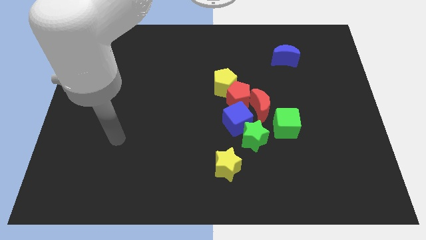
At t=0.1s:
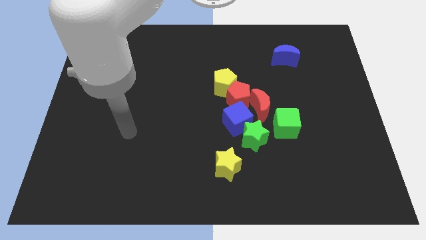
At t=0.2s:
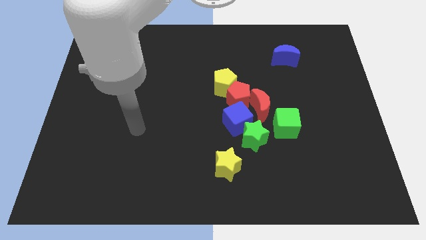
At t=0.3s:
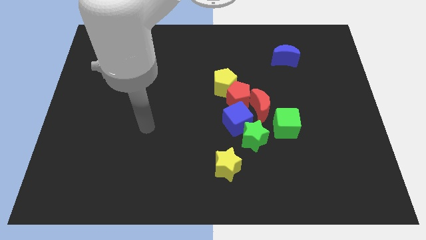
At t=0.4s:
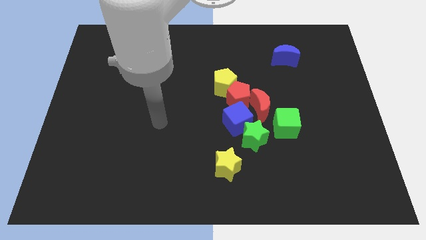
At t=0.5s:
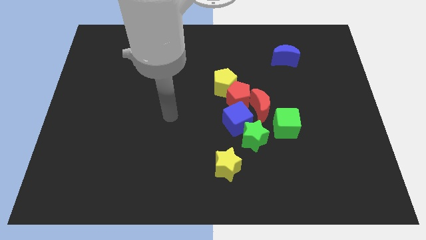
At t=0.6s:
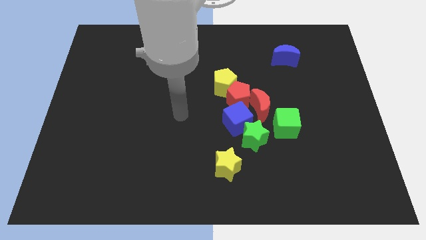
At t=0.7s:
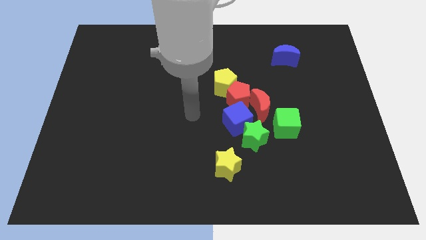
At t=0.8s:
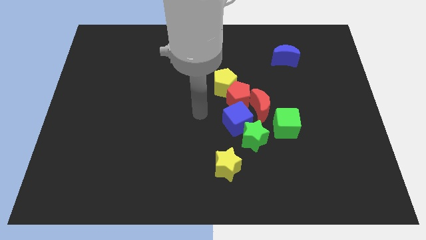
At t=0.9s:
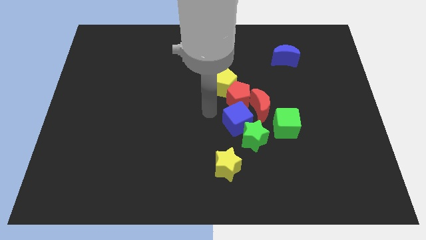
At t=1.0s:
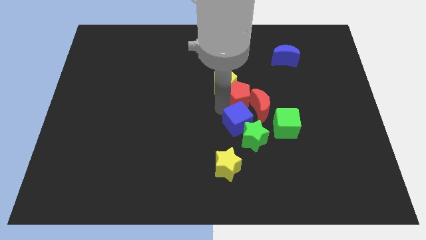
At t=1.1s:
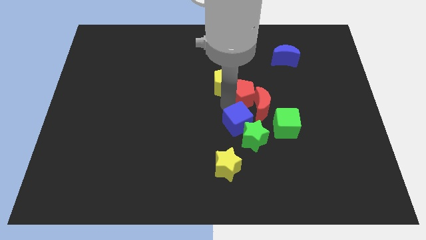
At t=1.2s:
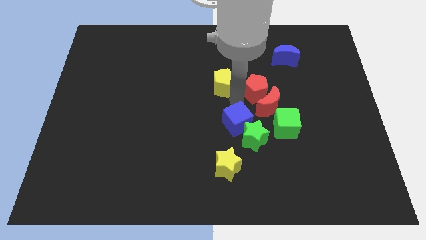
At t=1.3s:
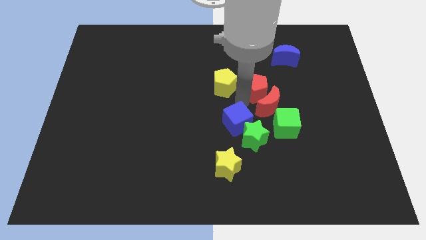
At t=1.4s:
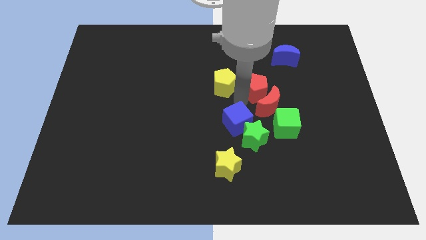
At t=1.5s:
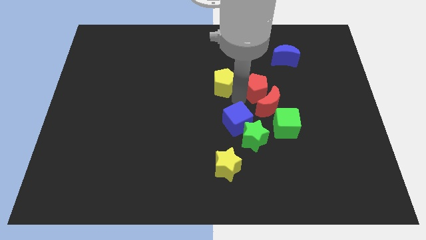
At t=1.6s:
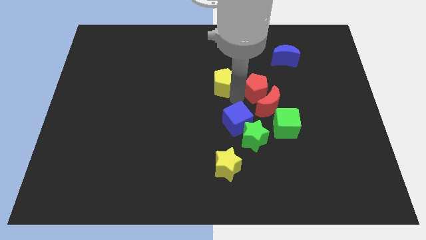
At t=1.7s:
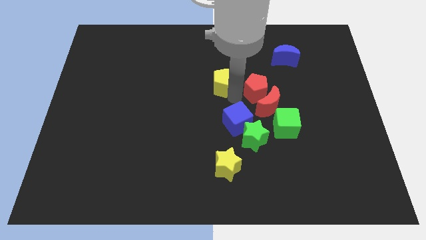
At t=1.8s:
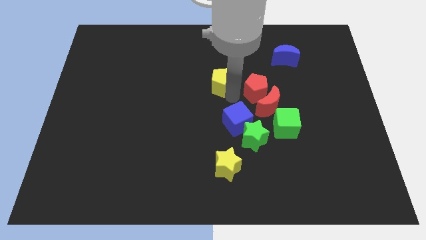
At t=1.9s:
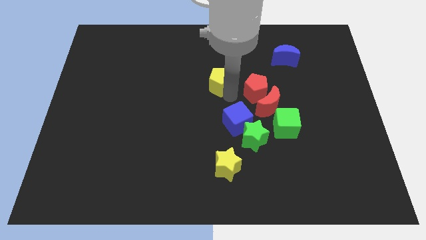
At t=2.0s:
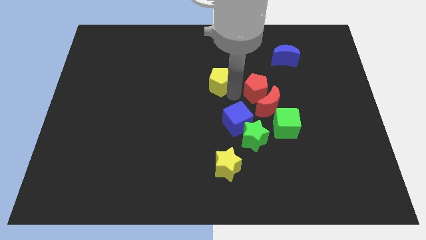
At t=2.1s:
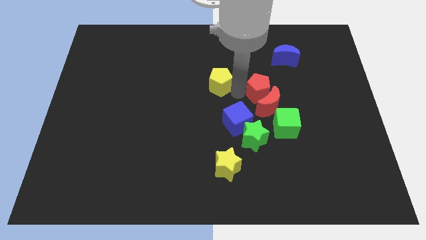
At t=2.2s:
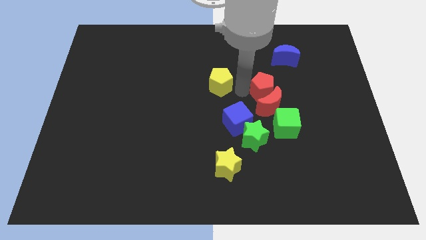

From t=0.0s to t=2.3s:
separate the yellow pentagon from the red pentagon

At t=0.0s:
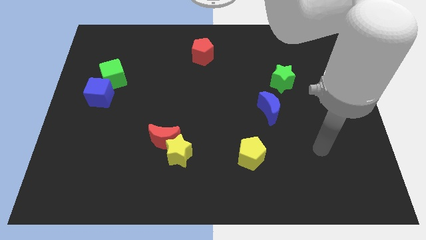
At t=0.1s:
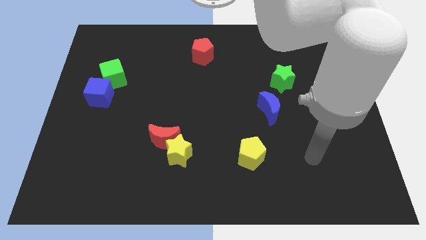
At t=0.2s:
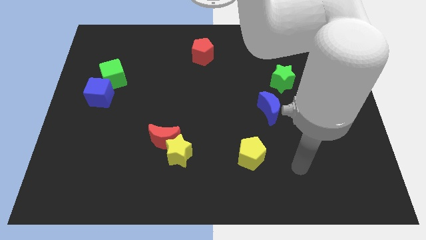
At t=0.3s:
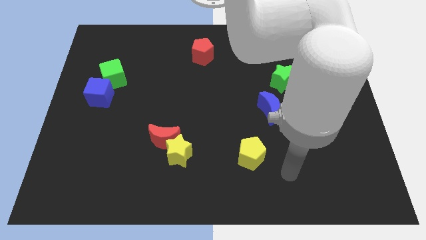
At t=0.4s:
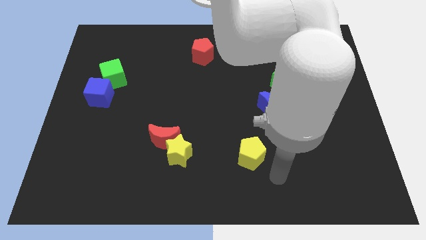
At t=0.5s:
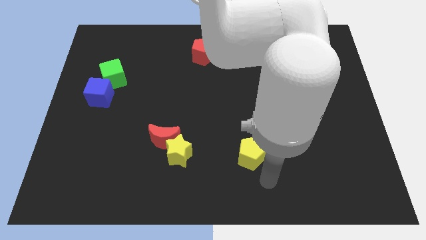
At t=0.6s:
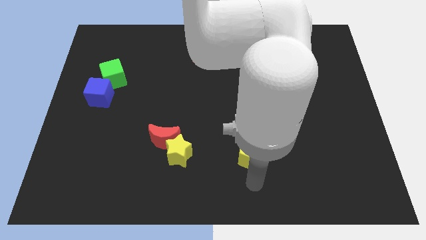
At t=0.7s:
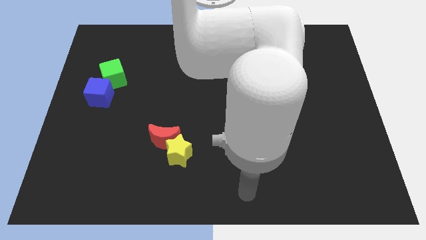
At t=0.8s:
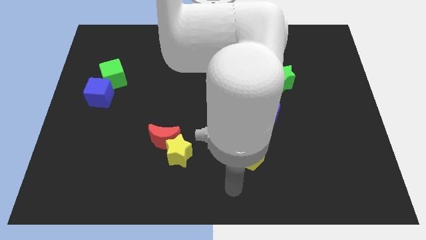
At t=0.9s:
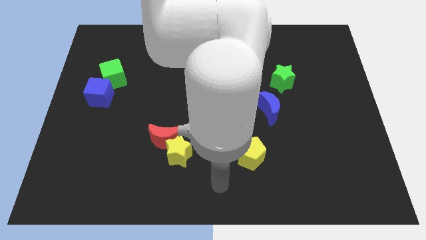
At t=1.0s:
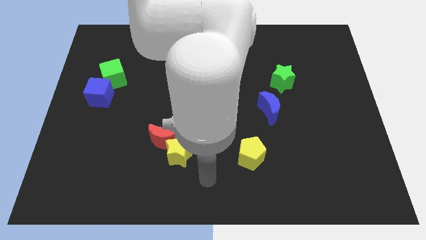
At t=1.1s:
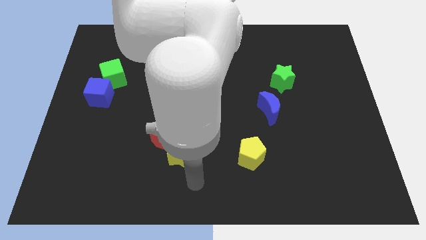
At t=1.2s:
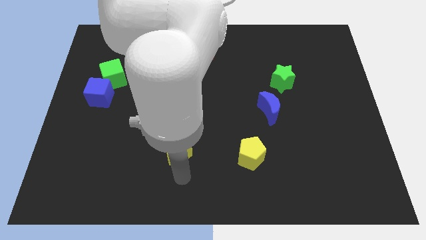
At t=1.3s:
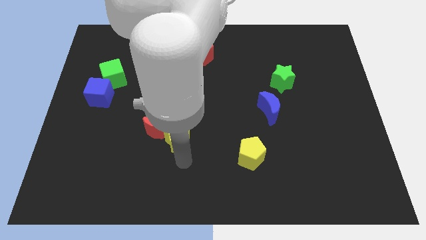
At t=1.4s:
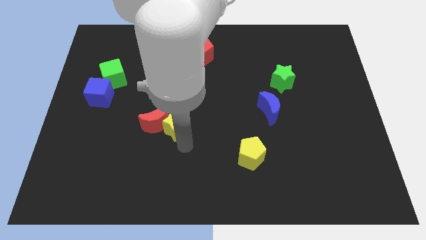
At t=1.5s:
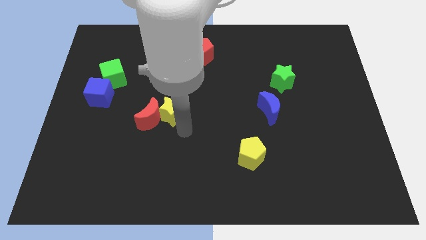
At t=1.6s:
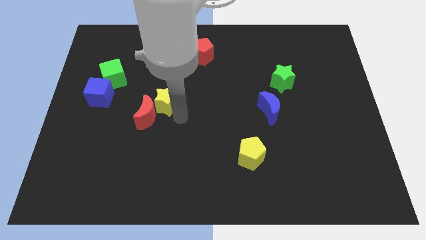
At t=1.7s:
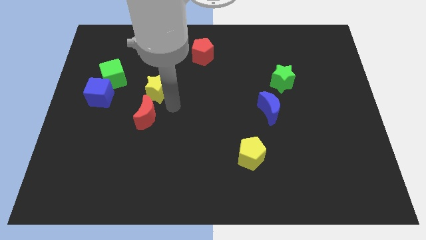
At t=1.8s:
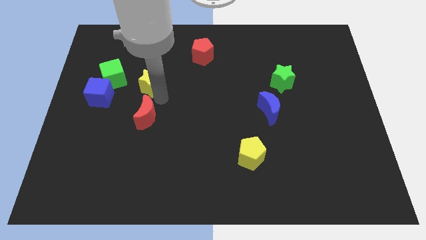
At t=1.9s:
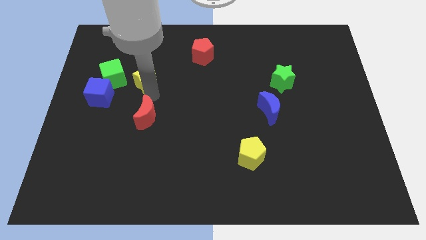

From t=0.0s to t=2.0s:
pull the red moon apart from the yellow star

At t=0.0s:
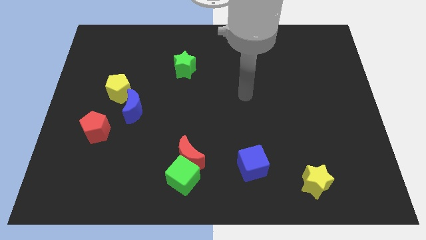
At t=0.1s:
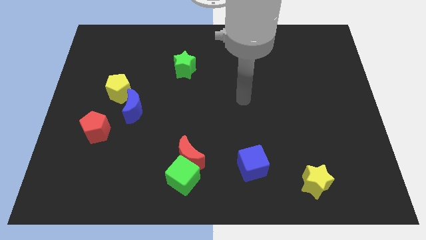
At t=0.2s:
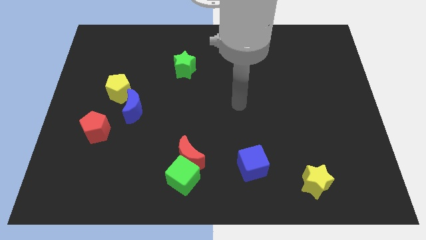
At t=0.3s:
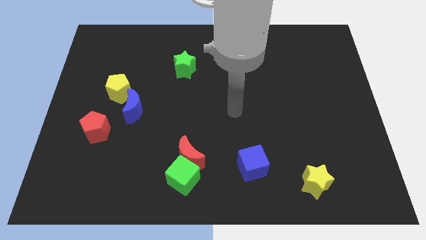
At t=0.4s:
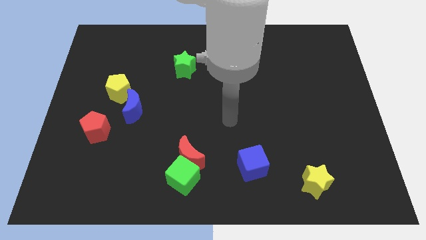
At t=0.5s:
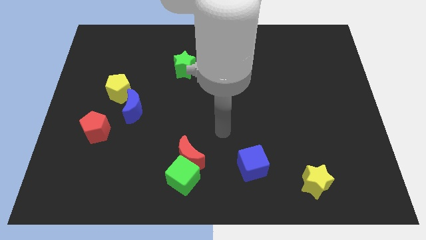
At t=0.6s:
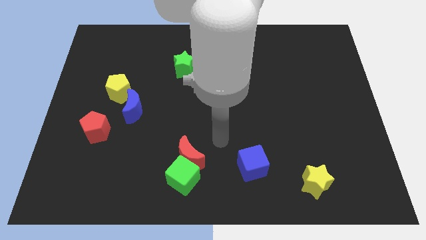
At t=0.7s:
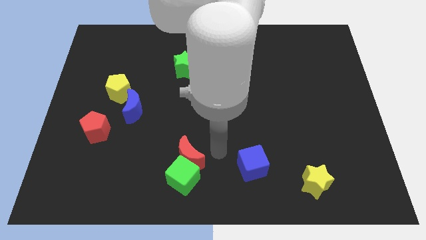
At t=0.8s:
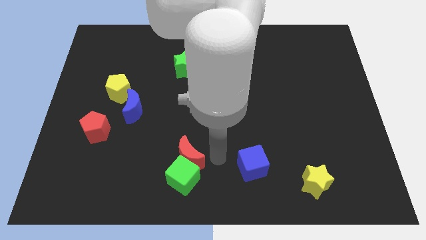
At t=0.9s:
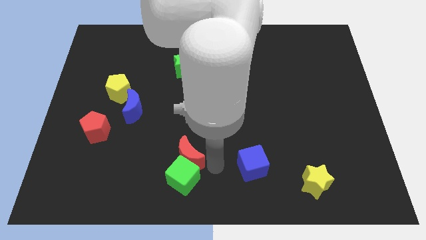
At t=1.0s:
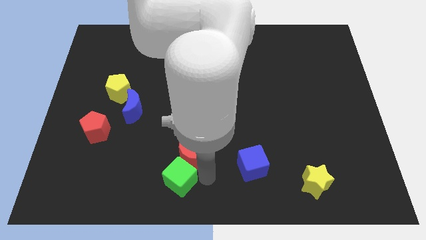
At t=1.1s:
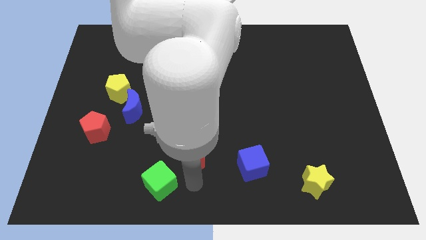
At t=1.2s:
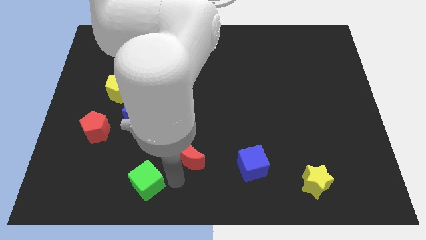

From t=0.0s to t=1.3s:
pull the red moon apart from the green cube

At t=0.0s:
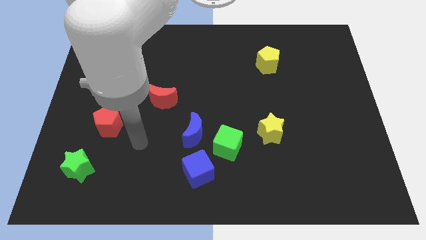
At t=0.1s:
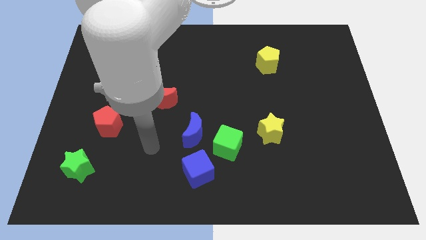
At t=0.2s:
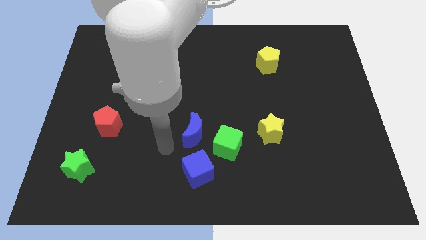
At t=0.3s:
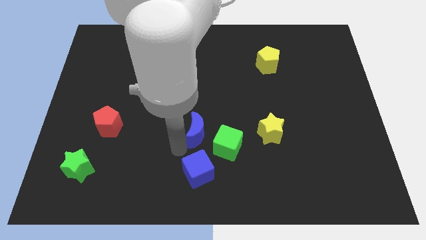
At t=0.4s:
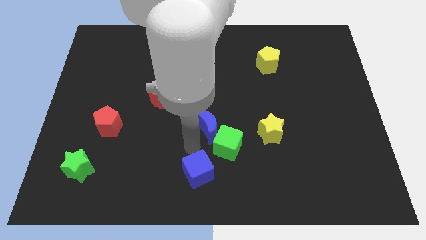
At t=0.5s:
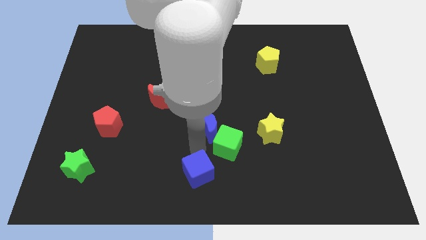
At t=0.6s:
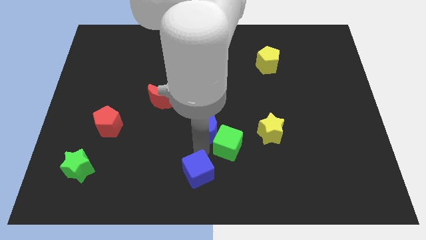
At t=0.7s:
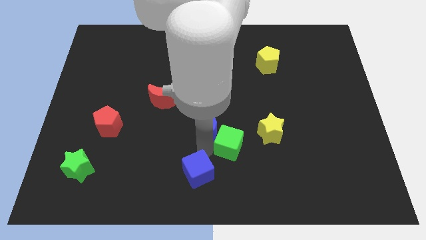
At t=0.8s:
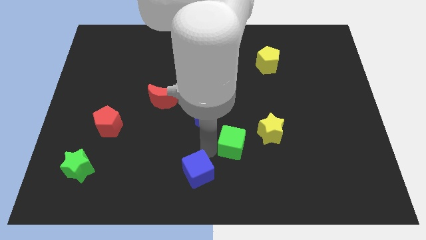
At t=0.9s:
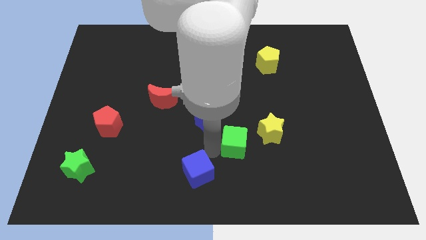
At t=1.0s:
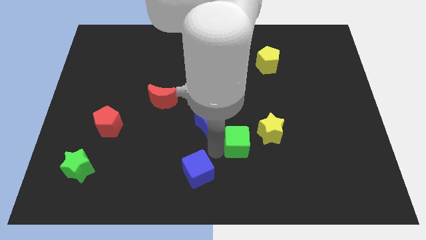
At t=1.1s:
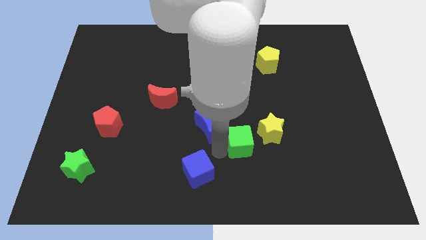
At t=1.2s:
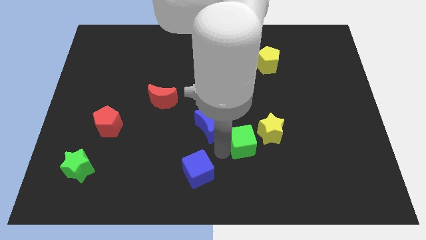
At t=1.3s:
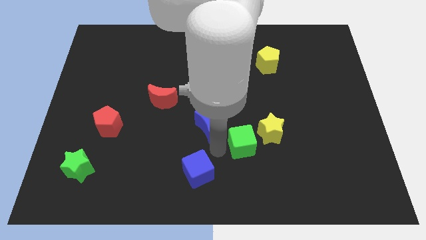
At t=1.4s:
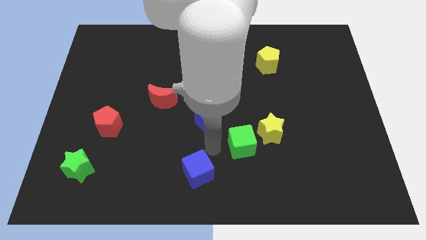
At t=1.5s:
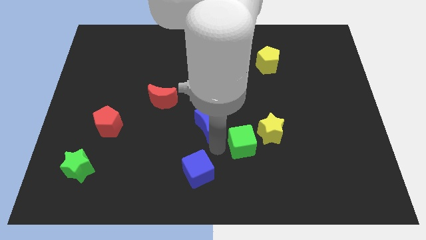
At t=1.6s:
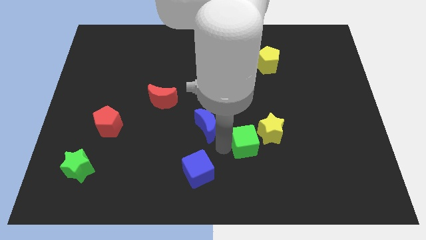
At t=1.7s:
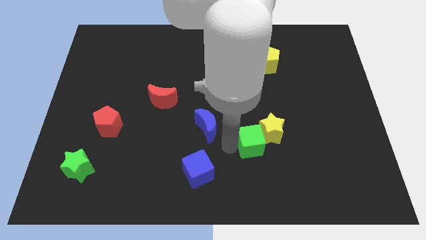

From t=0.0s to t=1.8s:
move the green cube away from the blue moon and blue cube

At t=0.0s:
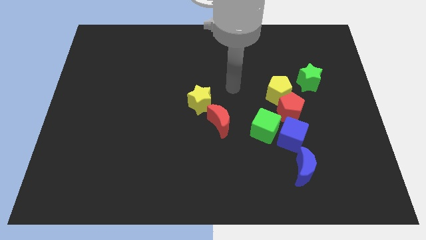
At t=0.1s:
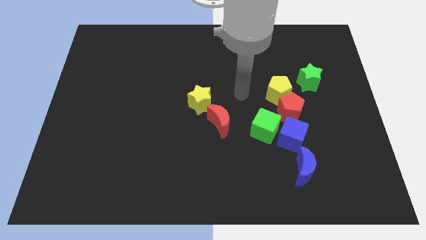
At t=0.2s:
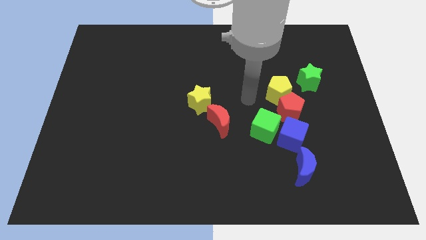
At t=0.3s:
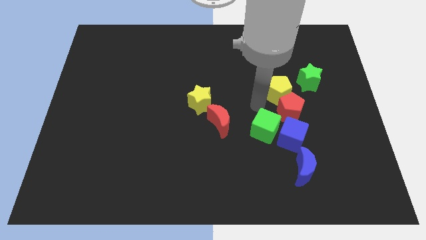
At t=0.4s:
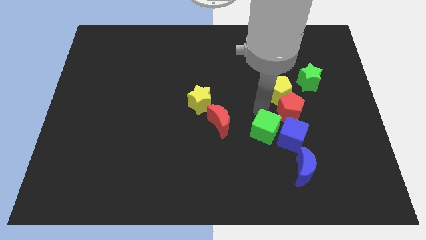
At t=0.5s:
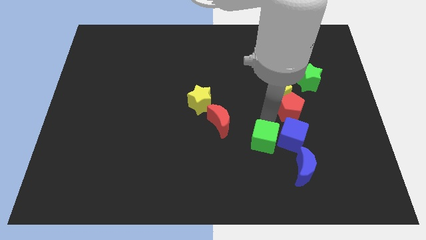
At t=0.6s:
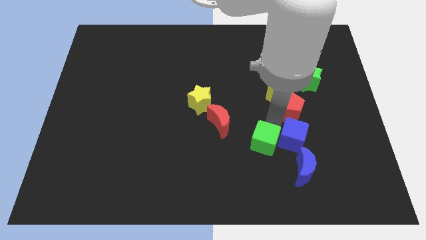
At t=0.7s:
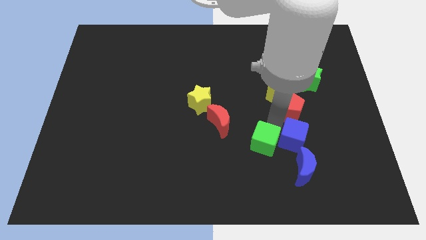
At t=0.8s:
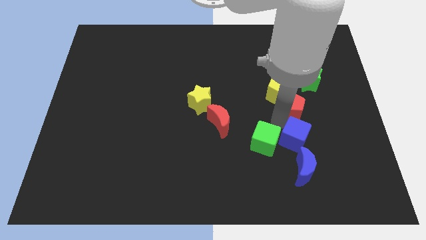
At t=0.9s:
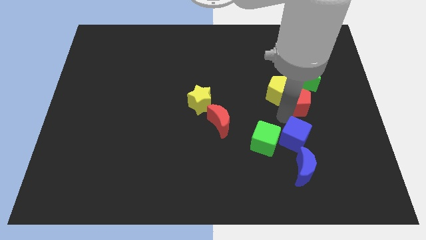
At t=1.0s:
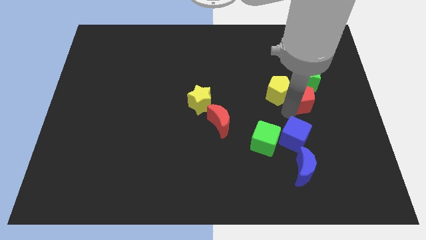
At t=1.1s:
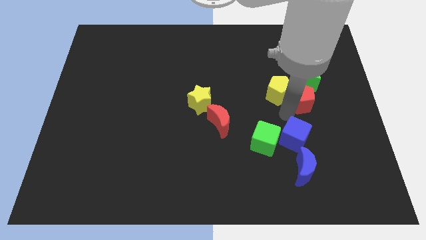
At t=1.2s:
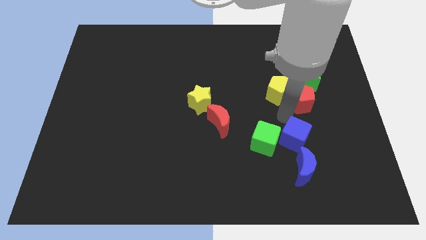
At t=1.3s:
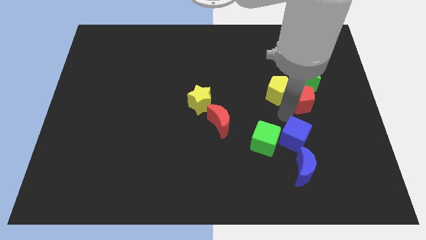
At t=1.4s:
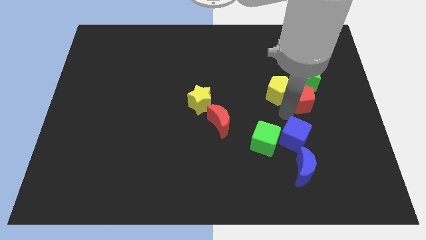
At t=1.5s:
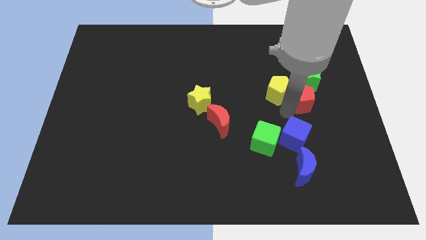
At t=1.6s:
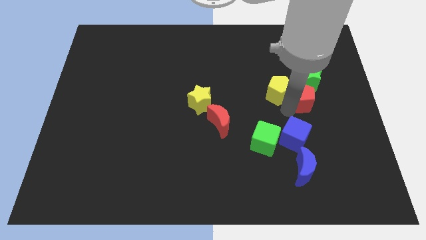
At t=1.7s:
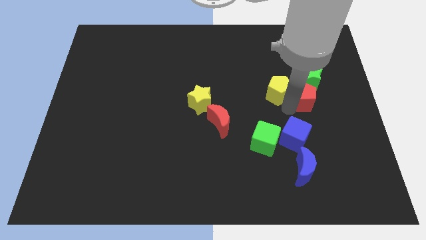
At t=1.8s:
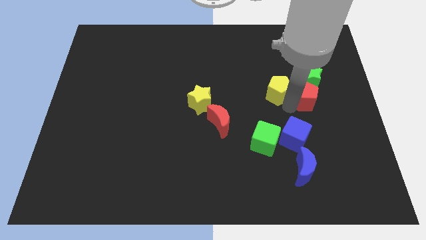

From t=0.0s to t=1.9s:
move the red pentagon away from the yellow pentagon, blue cube, and green cube
